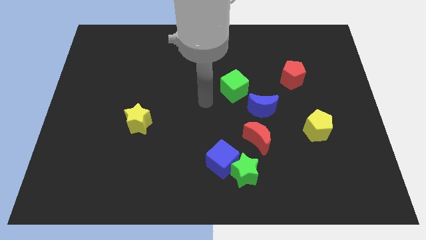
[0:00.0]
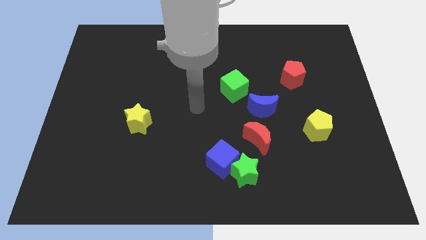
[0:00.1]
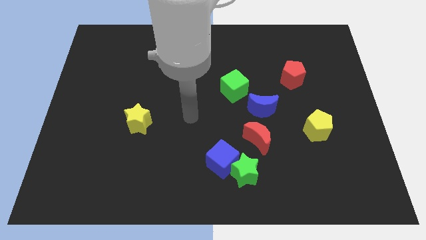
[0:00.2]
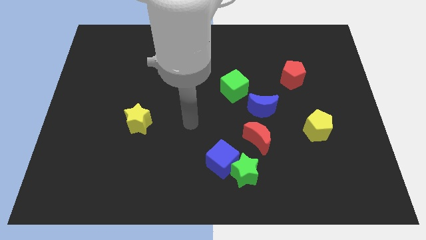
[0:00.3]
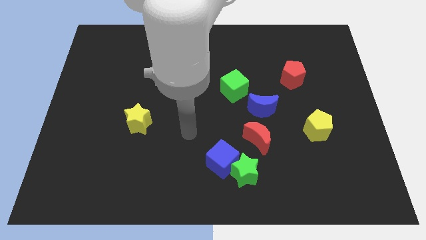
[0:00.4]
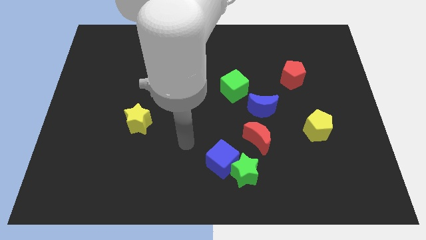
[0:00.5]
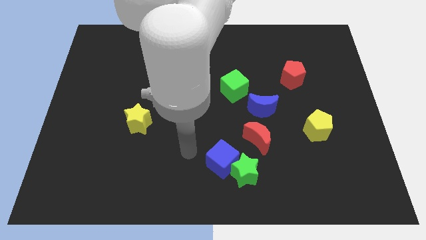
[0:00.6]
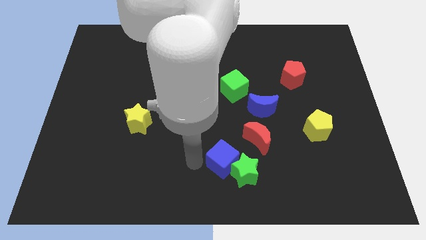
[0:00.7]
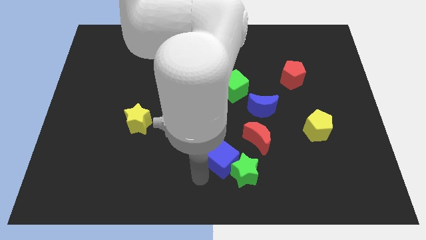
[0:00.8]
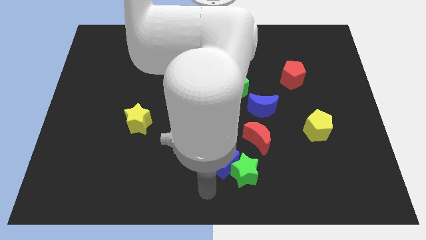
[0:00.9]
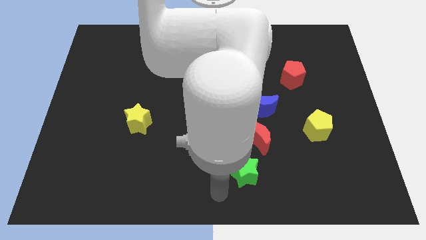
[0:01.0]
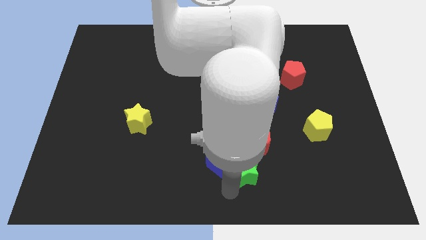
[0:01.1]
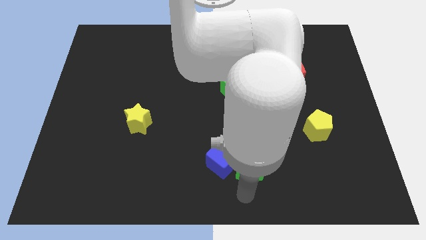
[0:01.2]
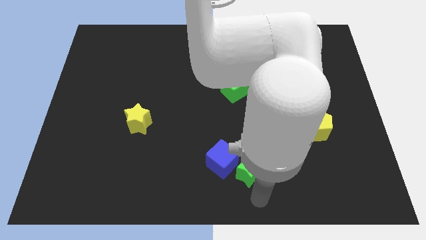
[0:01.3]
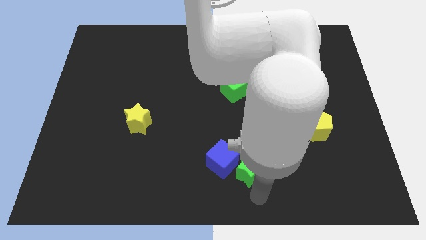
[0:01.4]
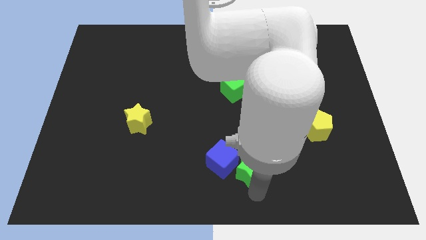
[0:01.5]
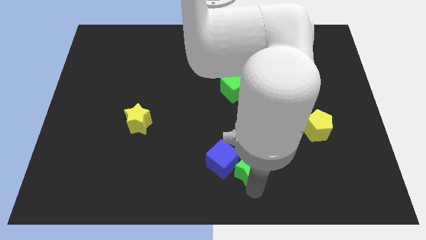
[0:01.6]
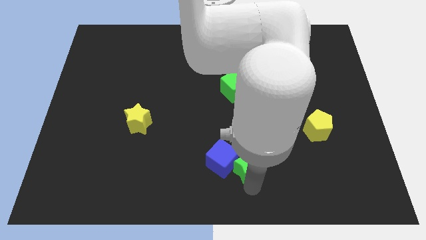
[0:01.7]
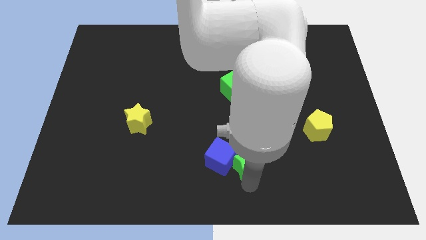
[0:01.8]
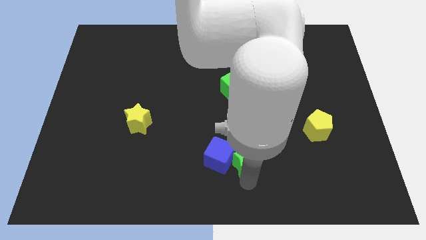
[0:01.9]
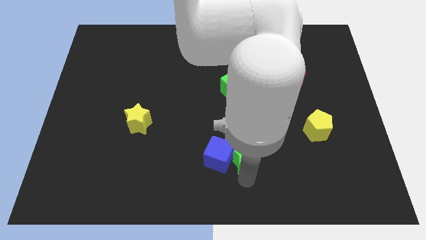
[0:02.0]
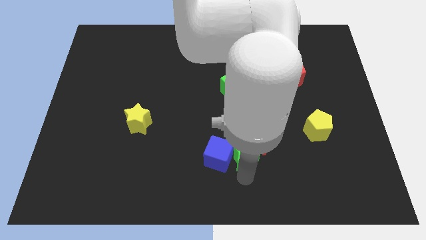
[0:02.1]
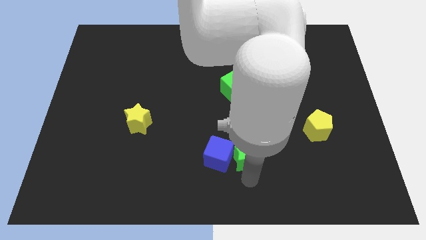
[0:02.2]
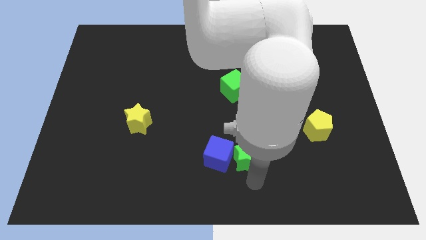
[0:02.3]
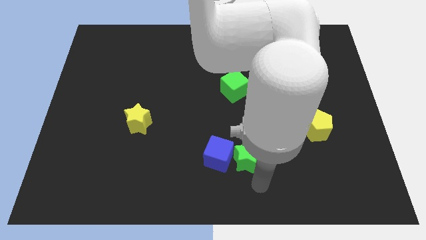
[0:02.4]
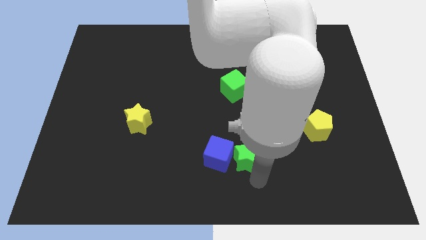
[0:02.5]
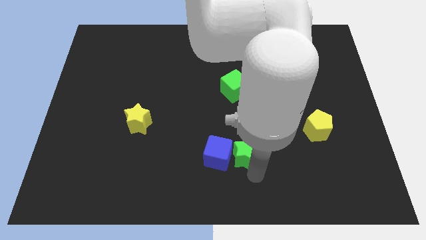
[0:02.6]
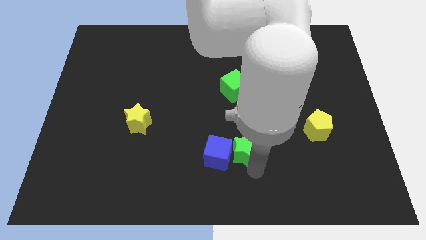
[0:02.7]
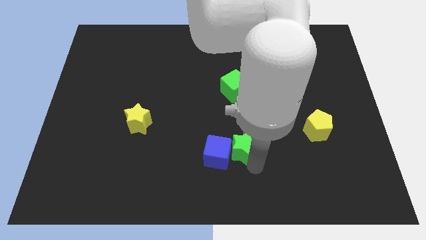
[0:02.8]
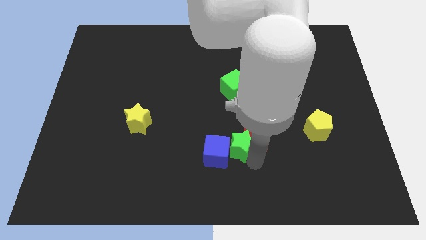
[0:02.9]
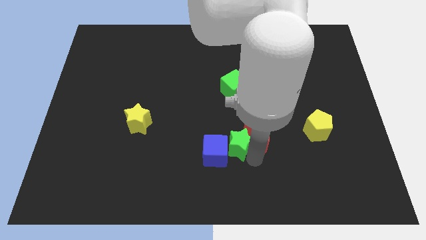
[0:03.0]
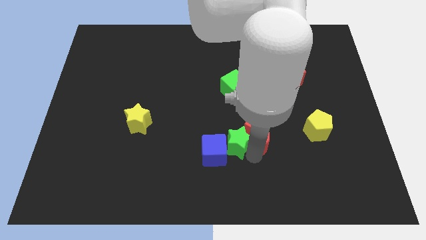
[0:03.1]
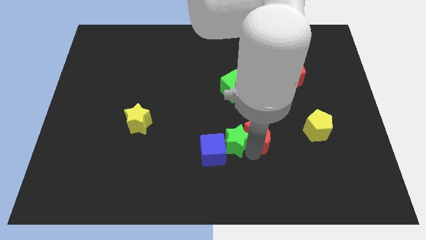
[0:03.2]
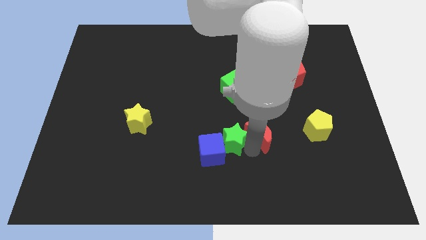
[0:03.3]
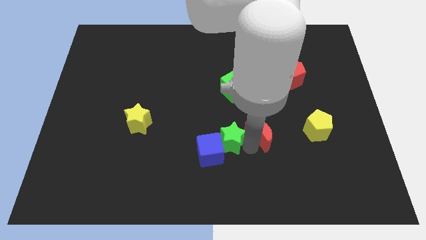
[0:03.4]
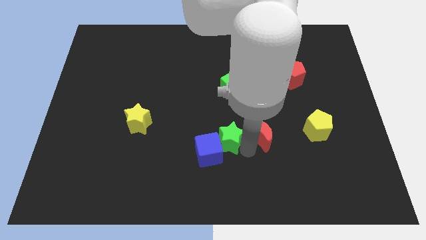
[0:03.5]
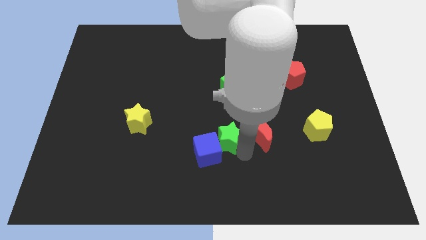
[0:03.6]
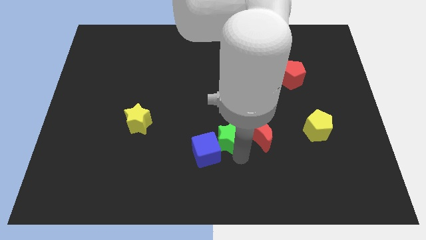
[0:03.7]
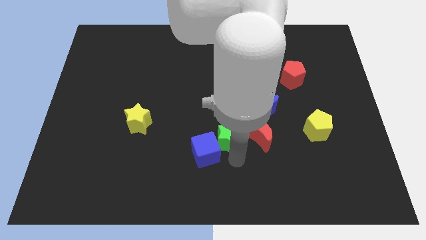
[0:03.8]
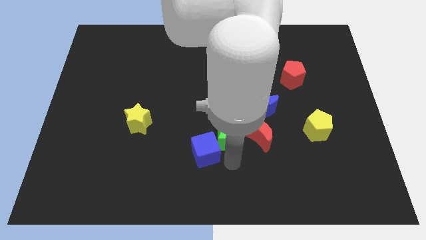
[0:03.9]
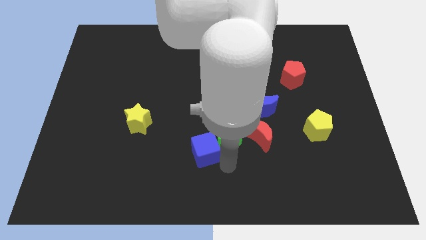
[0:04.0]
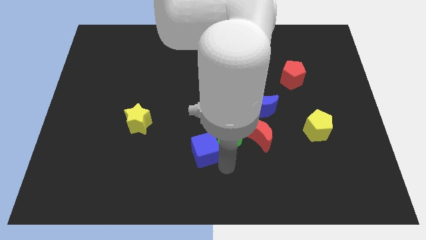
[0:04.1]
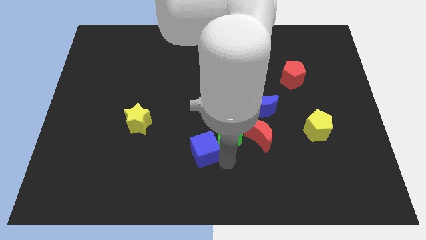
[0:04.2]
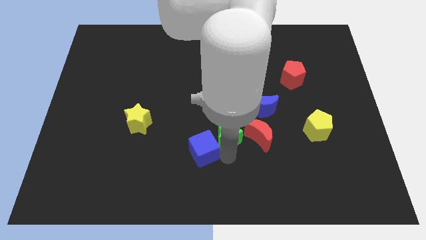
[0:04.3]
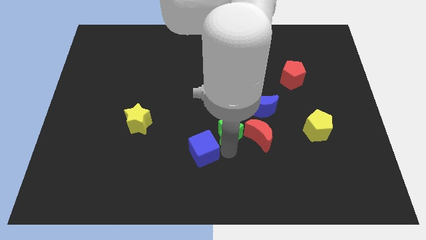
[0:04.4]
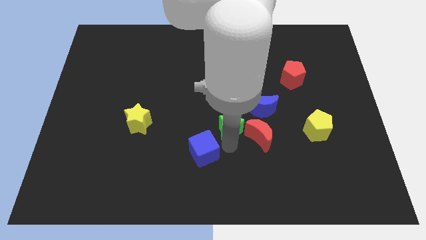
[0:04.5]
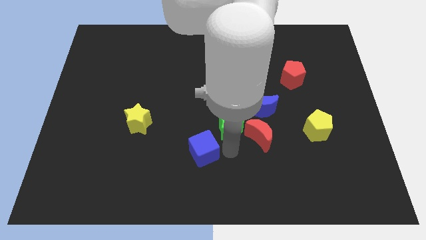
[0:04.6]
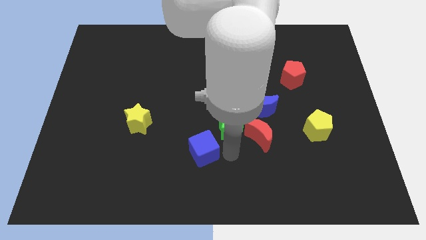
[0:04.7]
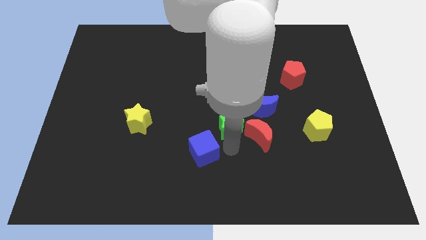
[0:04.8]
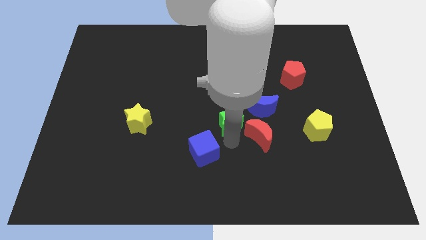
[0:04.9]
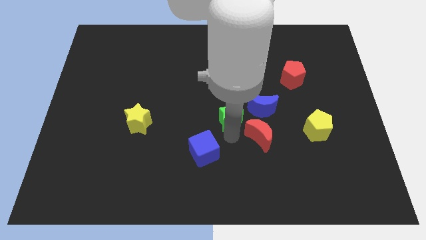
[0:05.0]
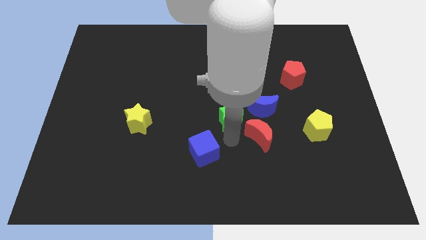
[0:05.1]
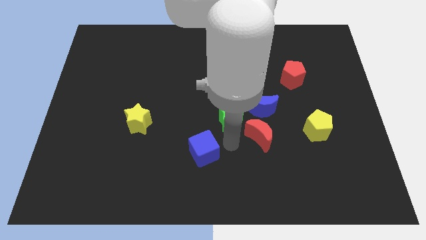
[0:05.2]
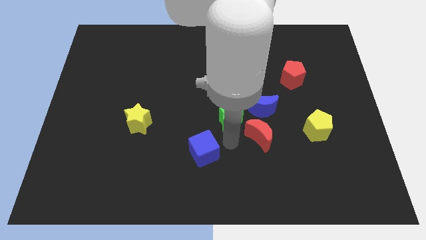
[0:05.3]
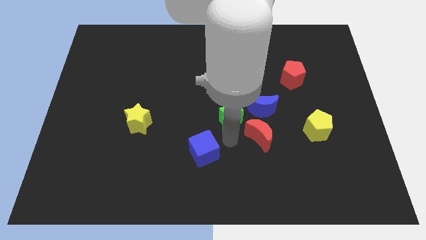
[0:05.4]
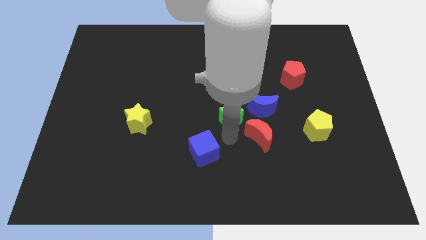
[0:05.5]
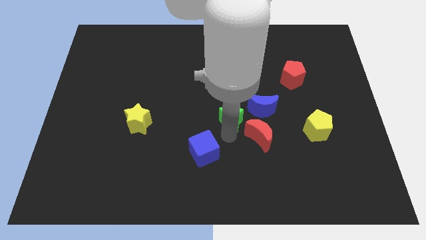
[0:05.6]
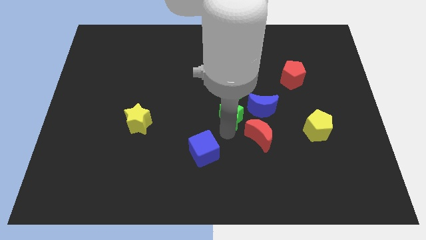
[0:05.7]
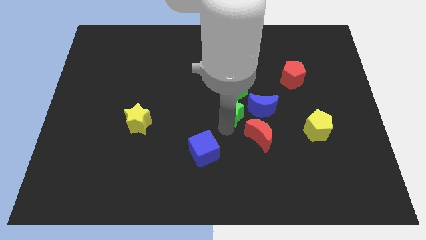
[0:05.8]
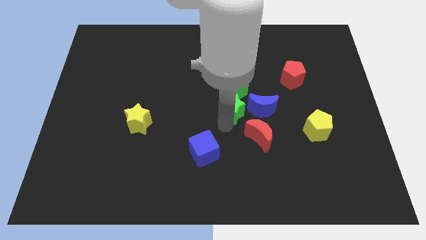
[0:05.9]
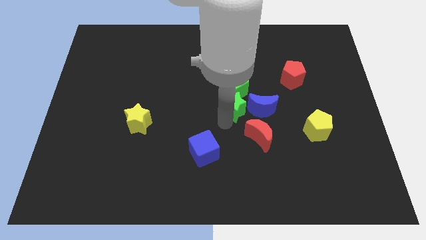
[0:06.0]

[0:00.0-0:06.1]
move the green star close to the green cube

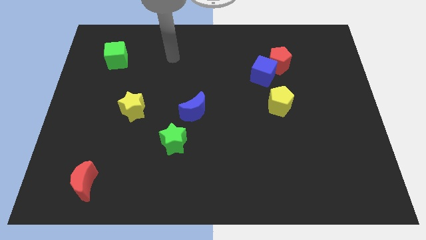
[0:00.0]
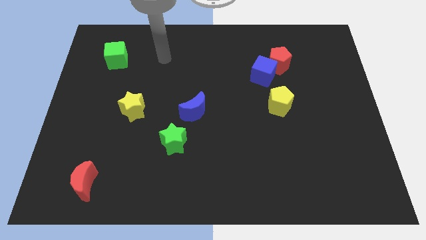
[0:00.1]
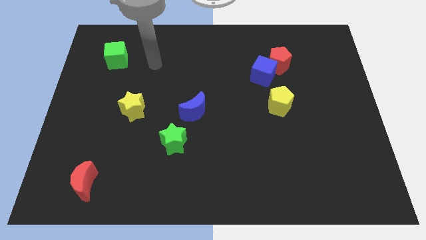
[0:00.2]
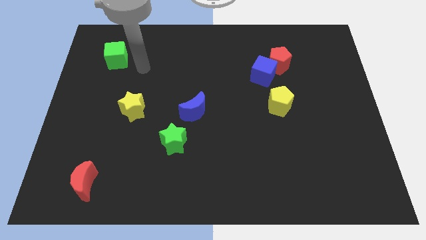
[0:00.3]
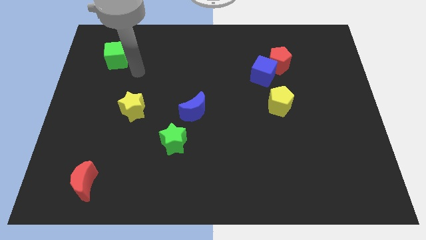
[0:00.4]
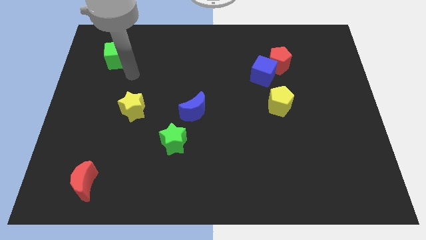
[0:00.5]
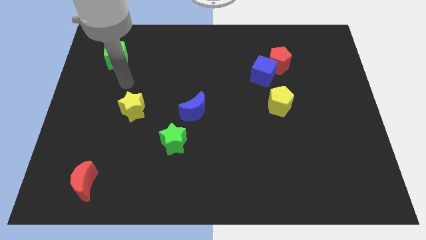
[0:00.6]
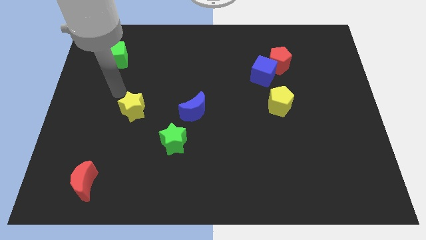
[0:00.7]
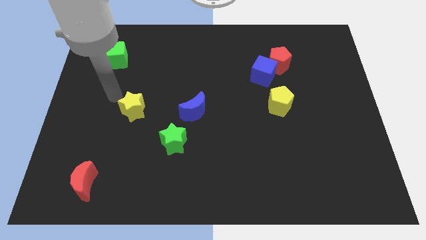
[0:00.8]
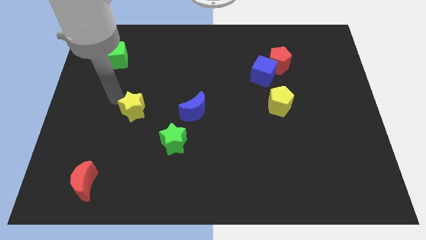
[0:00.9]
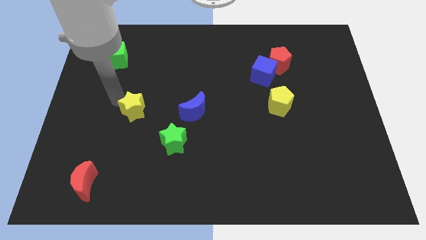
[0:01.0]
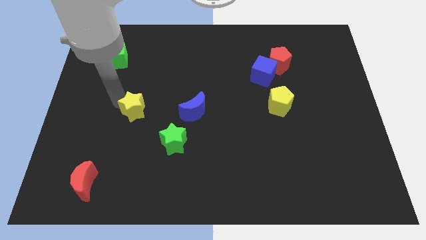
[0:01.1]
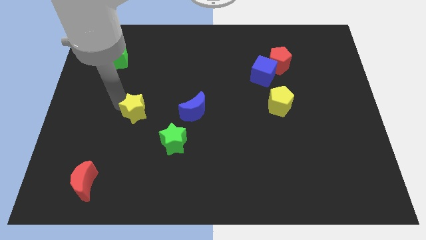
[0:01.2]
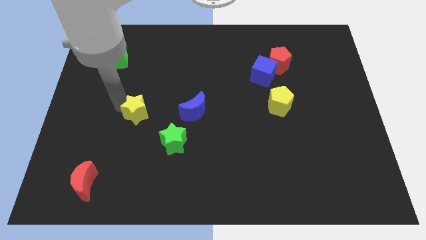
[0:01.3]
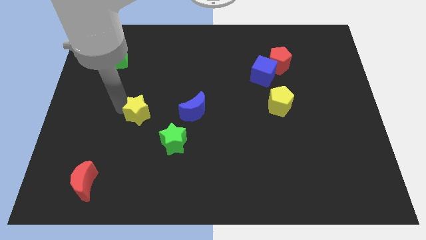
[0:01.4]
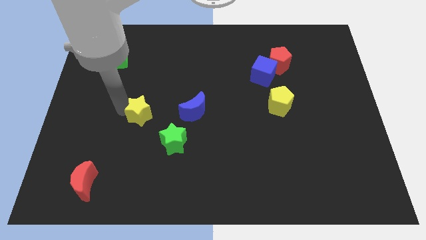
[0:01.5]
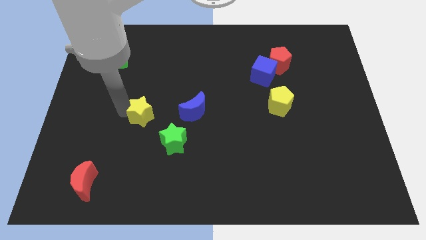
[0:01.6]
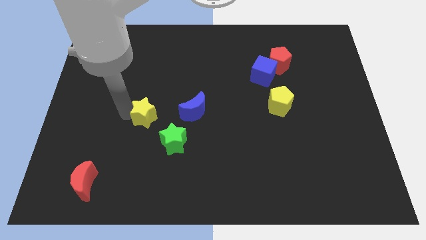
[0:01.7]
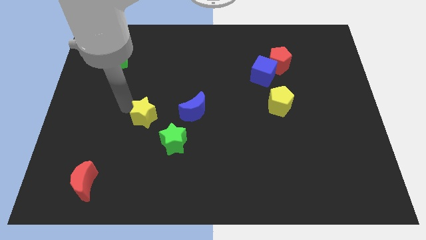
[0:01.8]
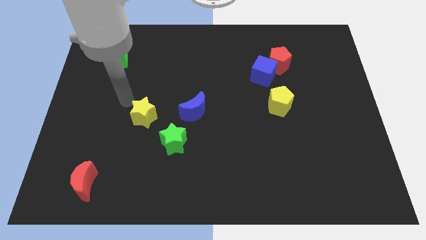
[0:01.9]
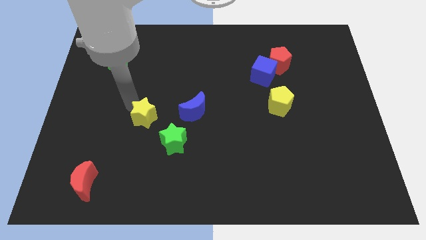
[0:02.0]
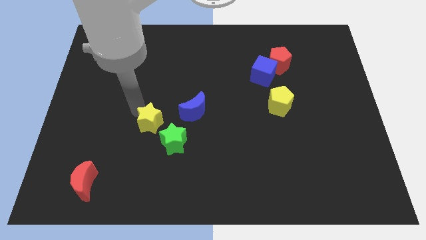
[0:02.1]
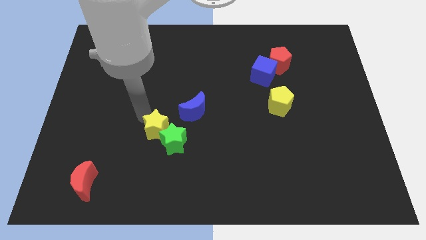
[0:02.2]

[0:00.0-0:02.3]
push the yellow star close to the green star
